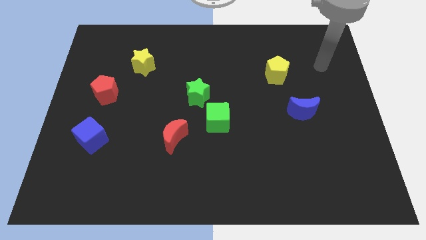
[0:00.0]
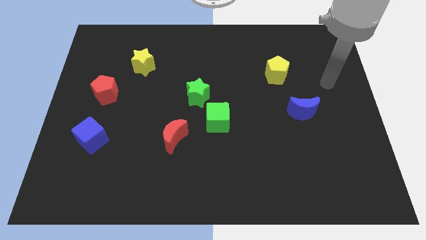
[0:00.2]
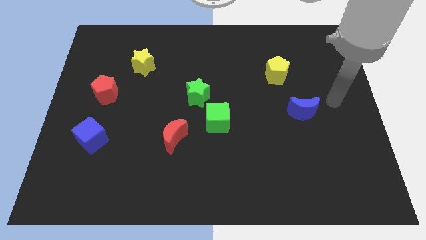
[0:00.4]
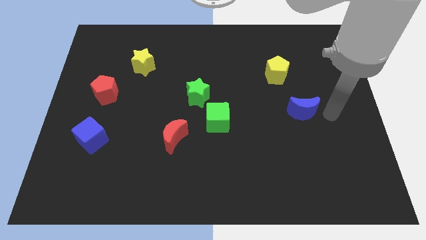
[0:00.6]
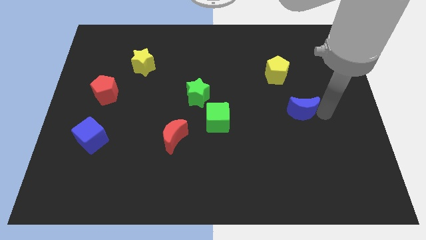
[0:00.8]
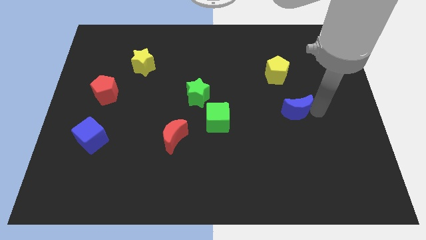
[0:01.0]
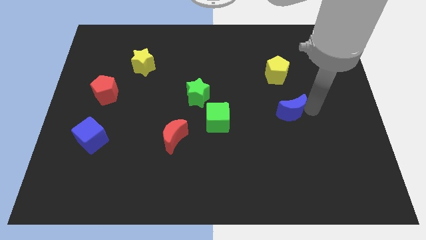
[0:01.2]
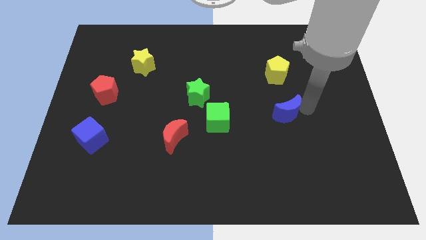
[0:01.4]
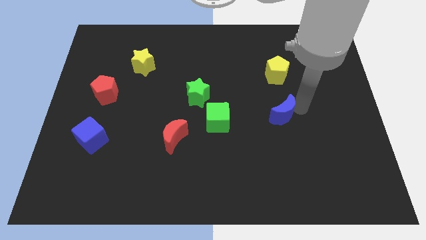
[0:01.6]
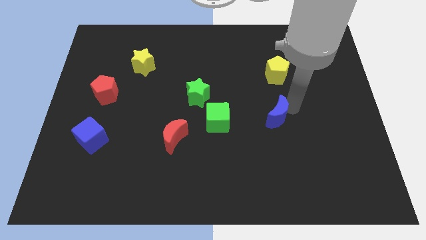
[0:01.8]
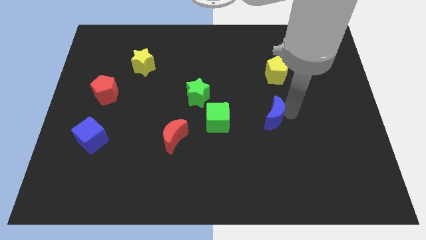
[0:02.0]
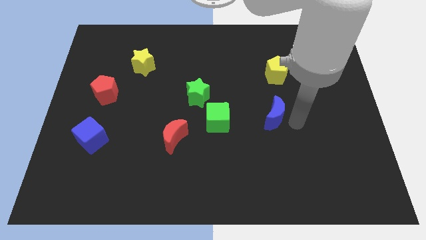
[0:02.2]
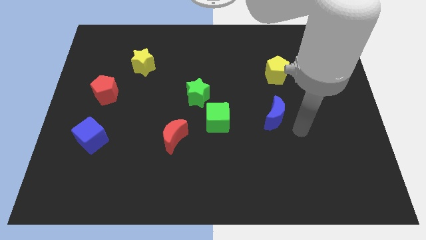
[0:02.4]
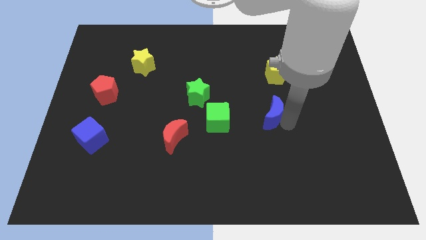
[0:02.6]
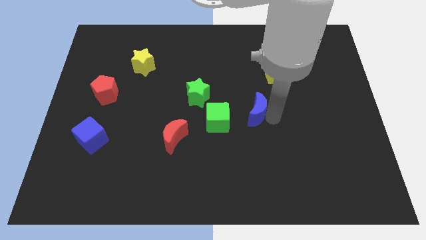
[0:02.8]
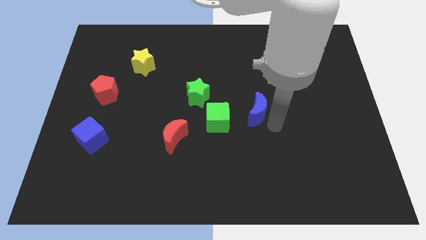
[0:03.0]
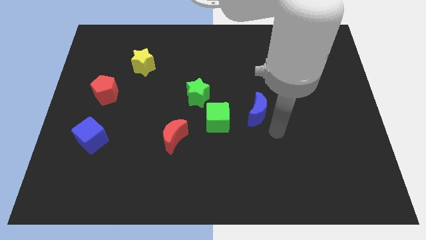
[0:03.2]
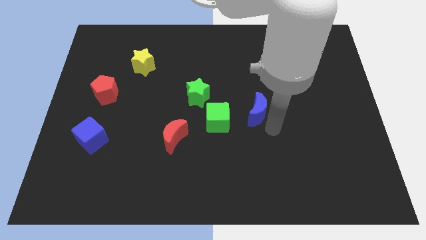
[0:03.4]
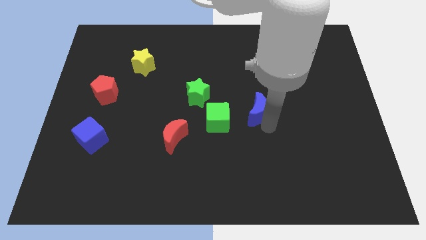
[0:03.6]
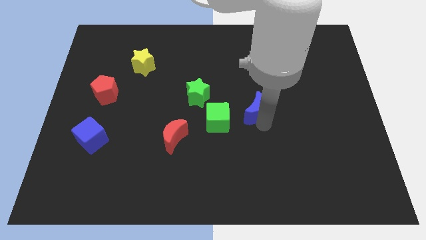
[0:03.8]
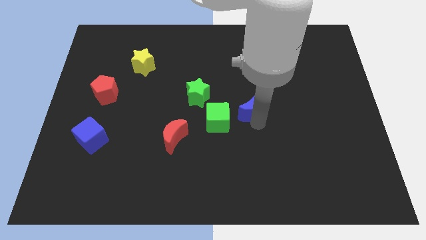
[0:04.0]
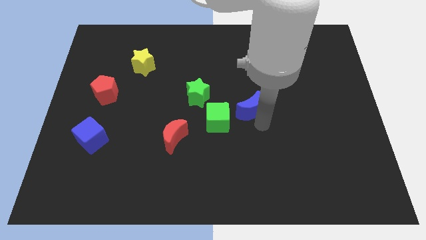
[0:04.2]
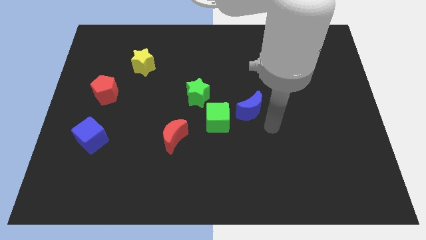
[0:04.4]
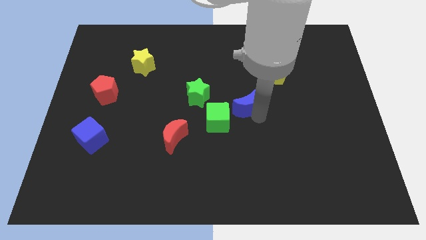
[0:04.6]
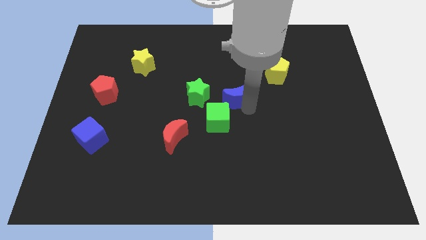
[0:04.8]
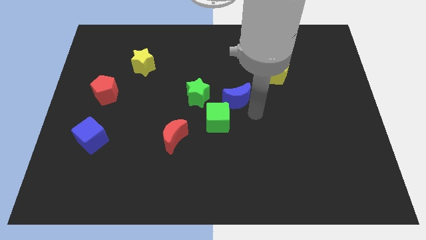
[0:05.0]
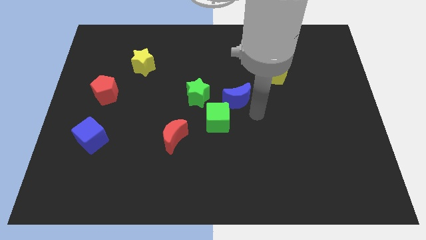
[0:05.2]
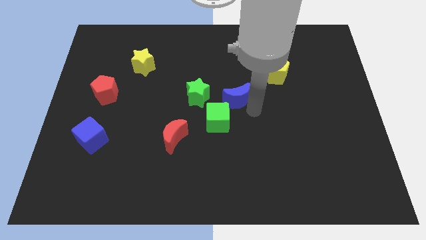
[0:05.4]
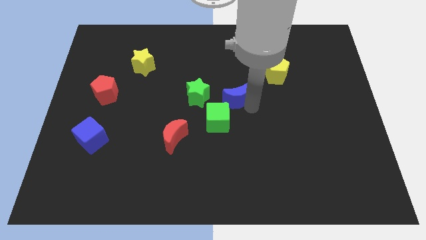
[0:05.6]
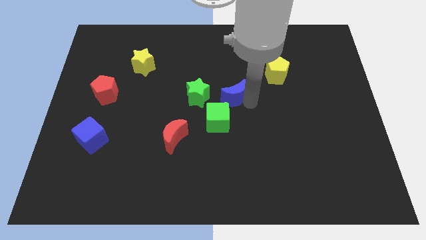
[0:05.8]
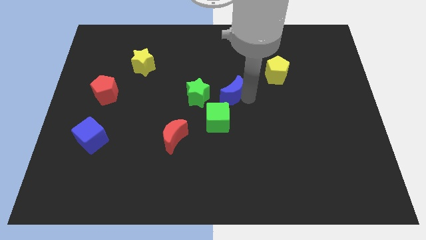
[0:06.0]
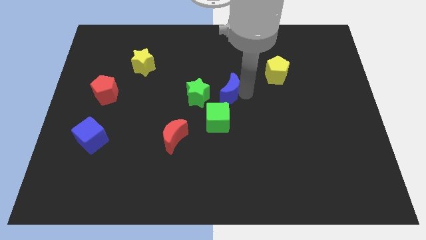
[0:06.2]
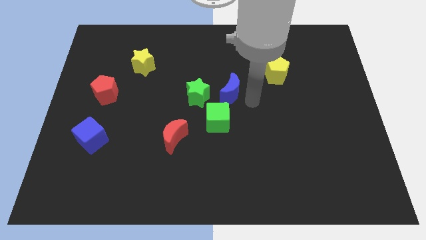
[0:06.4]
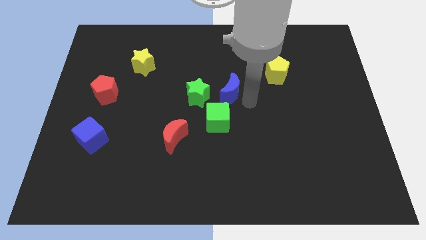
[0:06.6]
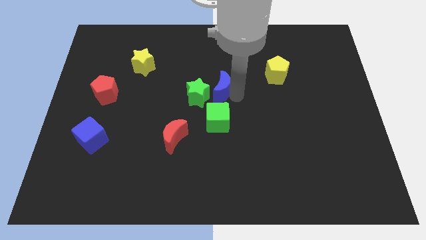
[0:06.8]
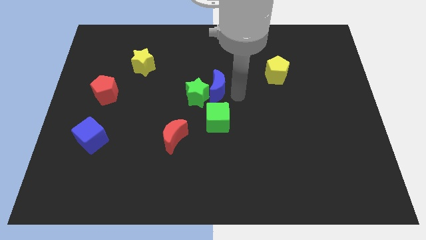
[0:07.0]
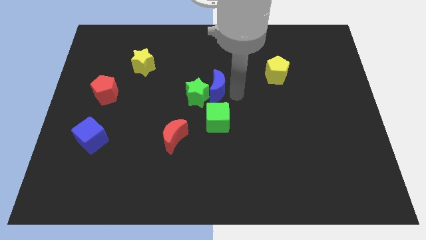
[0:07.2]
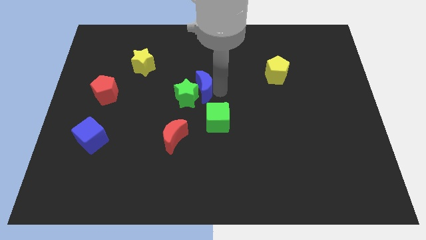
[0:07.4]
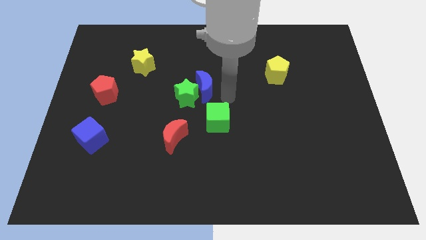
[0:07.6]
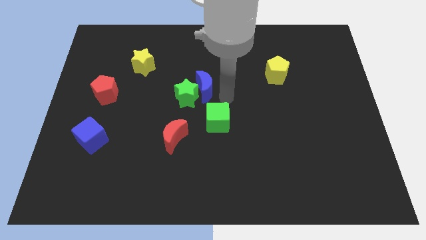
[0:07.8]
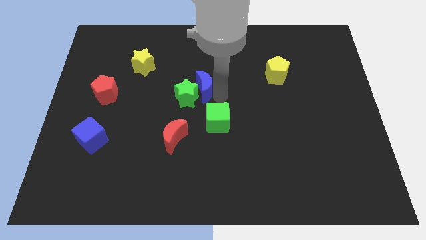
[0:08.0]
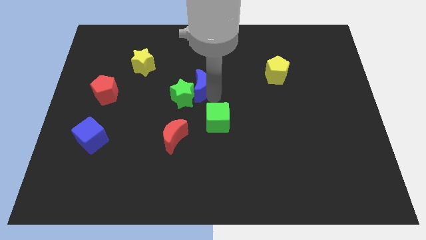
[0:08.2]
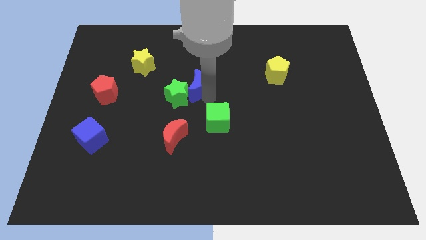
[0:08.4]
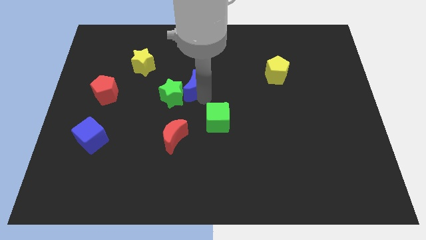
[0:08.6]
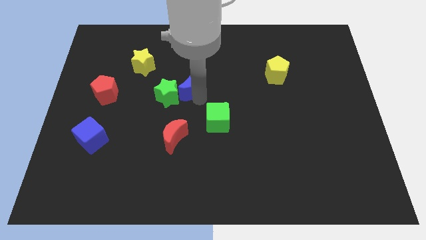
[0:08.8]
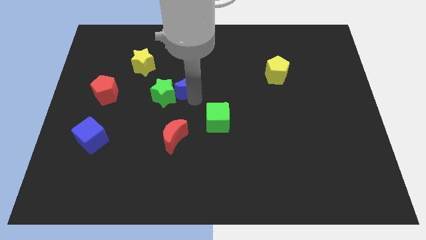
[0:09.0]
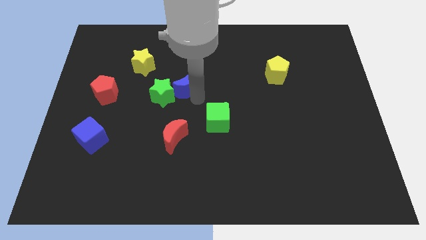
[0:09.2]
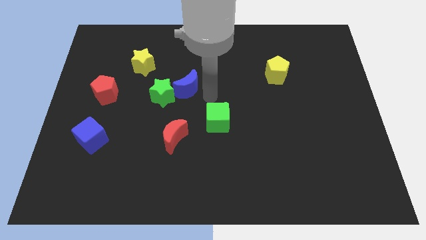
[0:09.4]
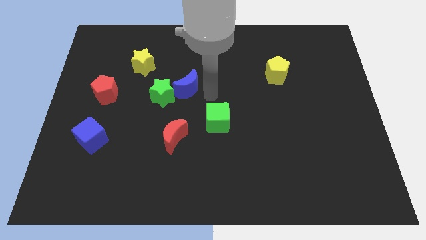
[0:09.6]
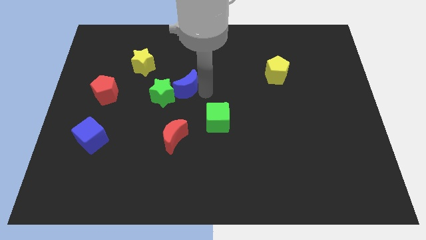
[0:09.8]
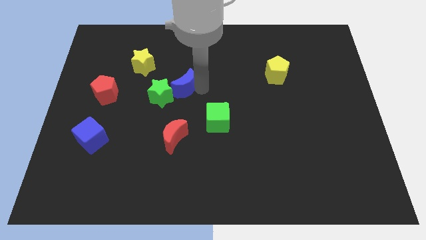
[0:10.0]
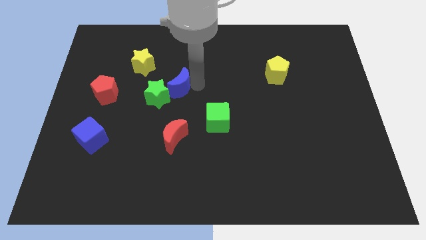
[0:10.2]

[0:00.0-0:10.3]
slide the blue moon to the bottom right of the yellow star

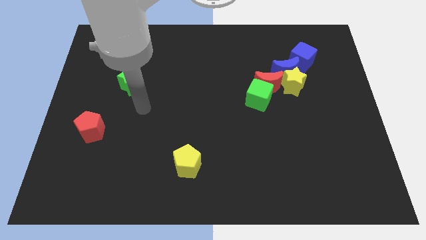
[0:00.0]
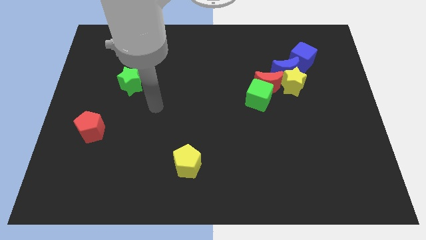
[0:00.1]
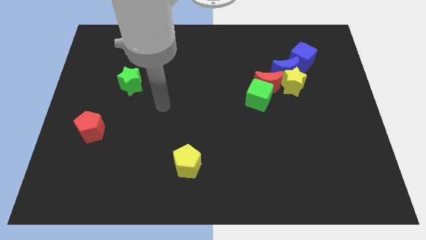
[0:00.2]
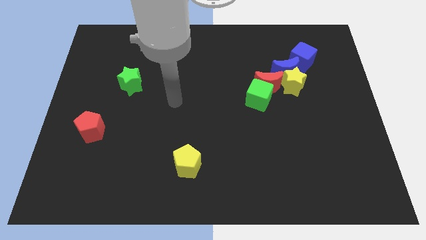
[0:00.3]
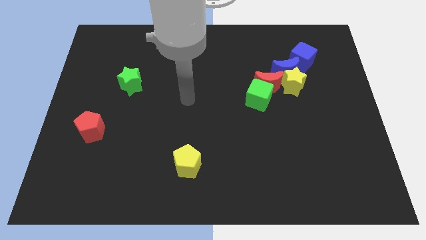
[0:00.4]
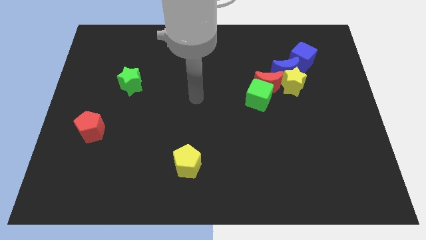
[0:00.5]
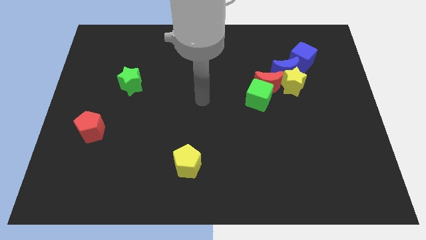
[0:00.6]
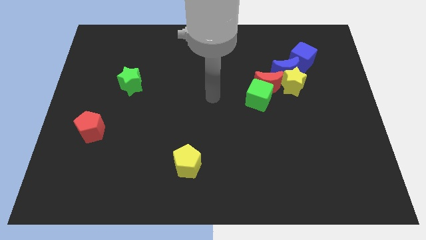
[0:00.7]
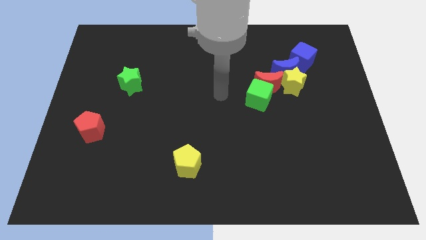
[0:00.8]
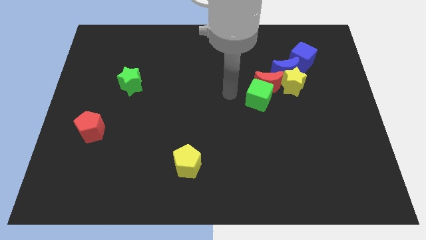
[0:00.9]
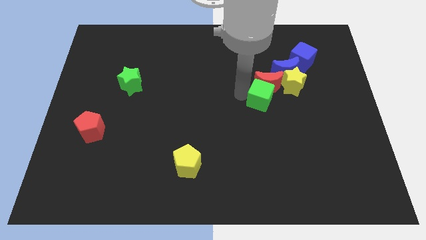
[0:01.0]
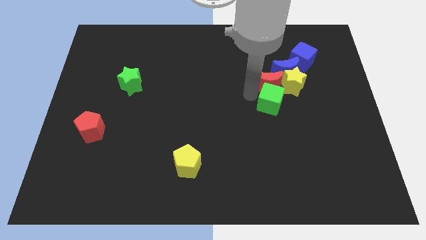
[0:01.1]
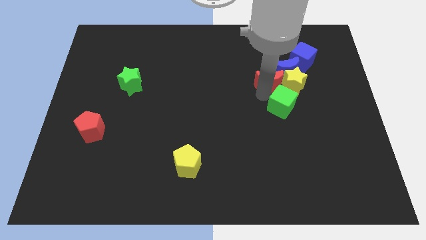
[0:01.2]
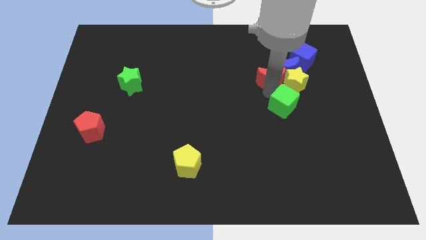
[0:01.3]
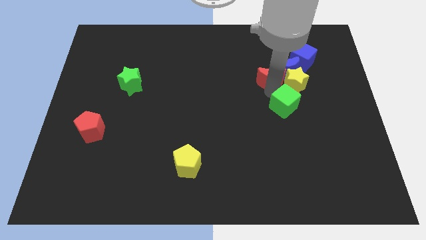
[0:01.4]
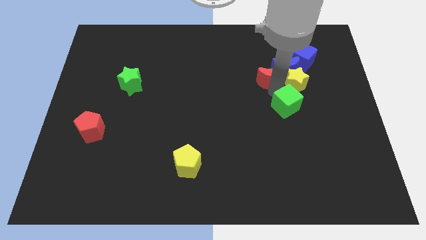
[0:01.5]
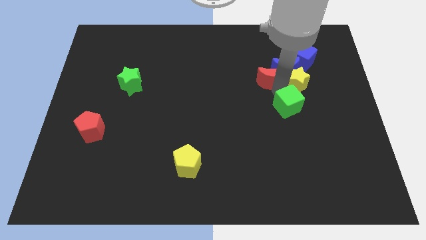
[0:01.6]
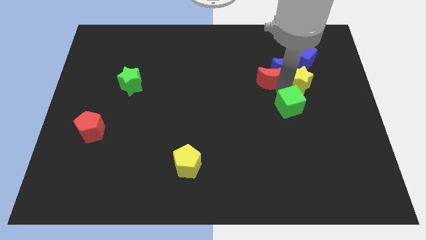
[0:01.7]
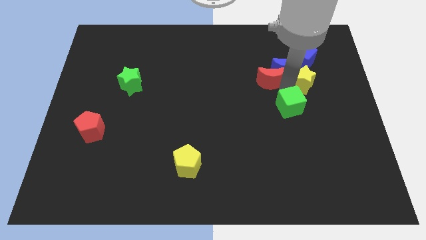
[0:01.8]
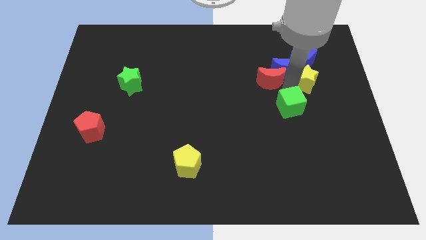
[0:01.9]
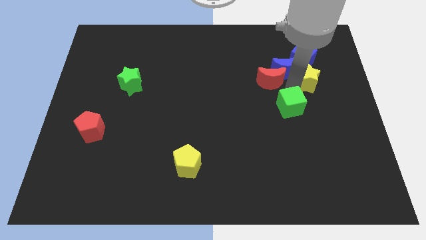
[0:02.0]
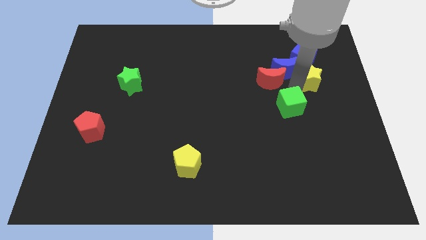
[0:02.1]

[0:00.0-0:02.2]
put the yellow star diagonally down and to the right of the blue cube
